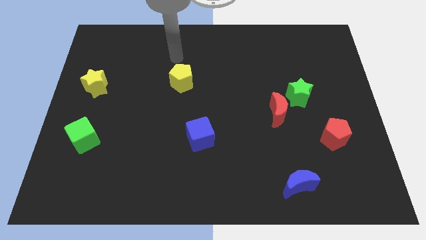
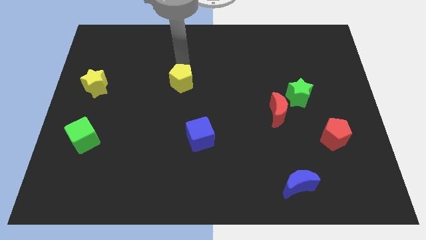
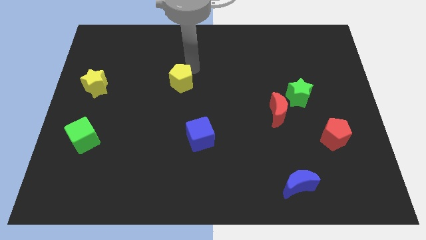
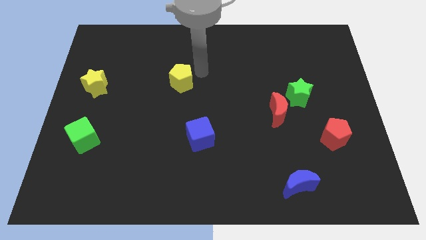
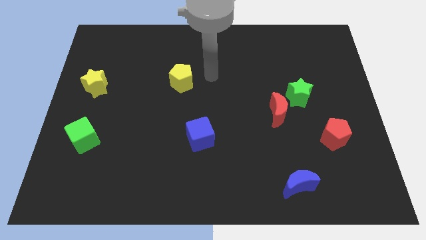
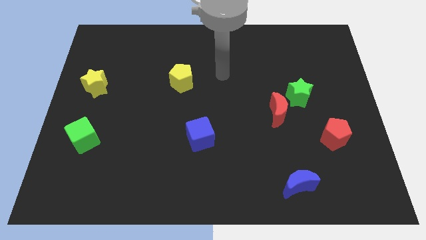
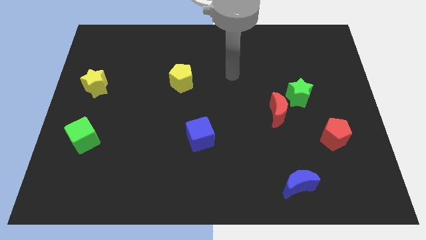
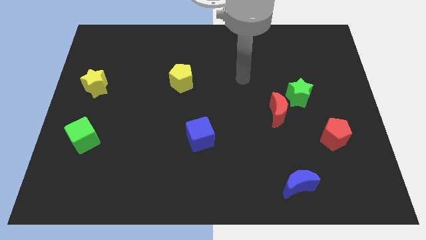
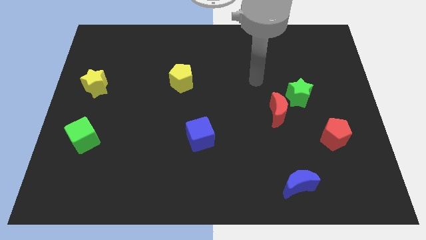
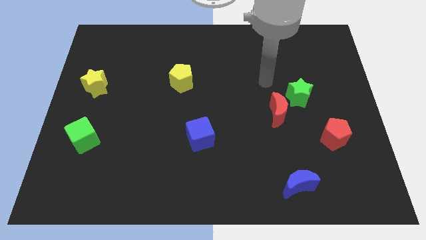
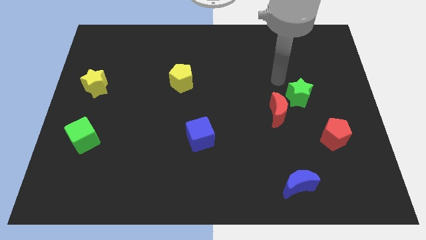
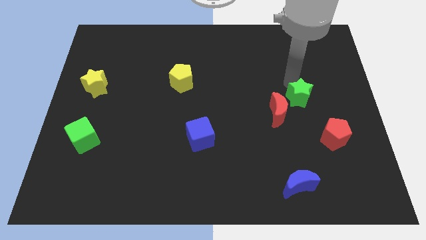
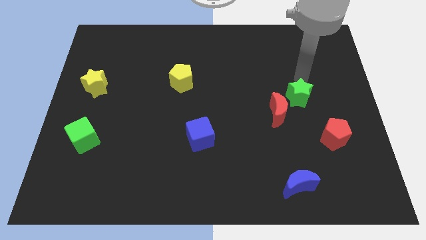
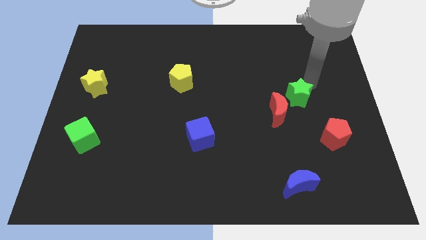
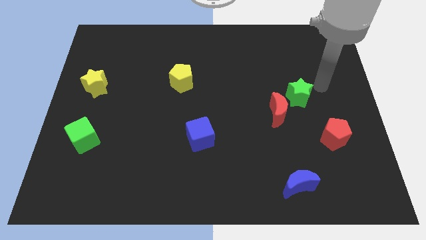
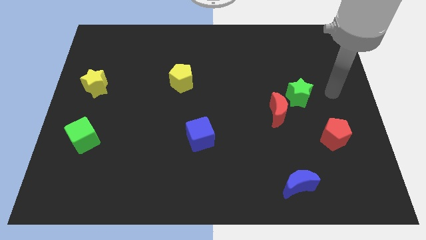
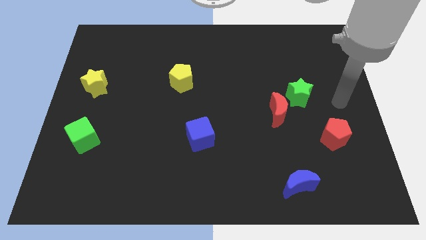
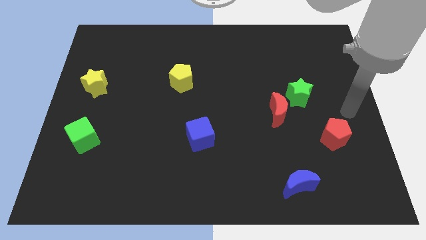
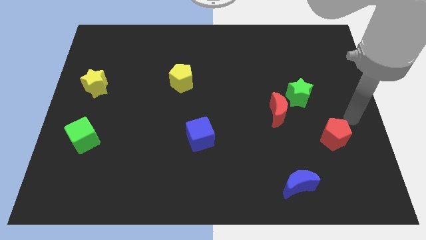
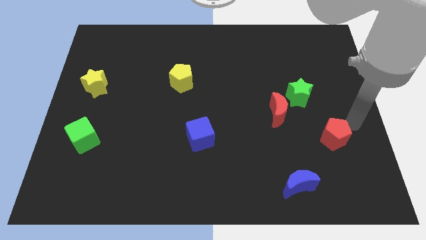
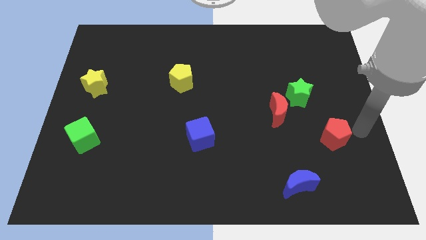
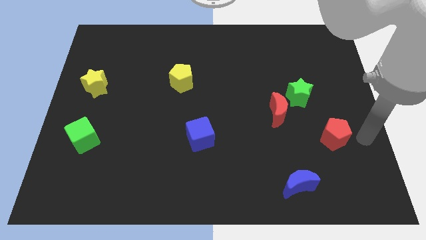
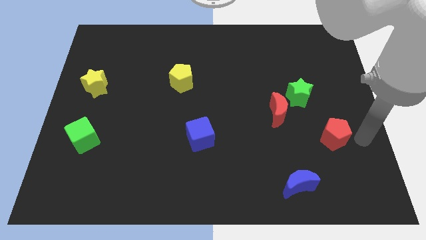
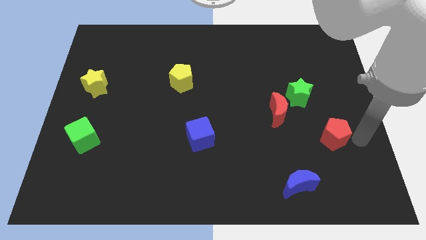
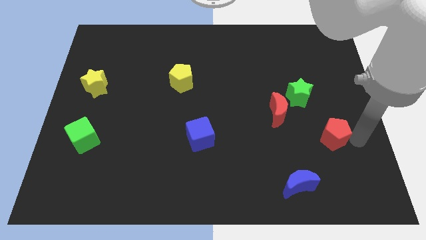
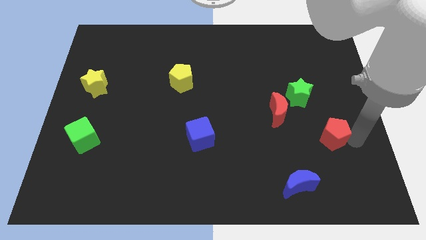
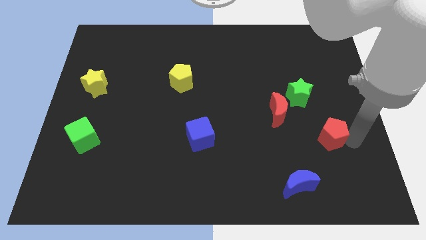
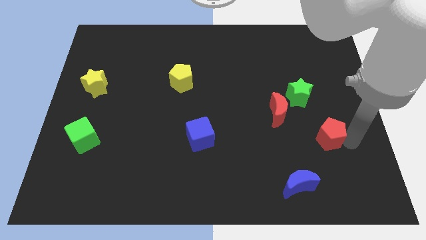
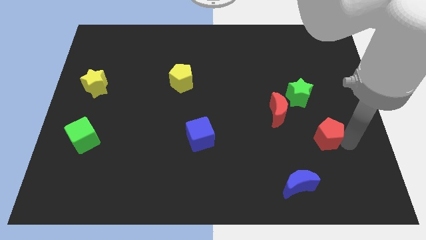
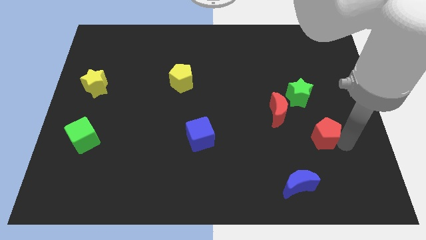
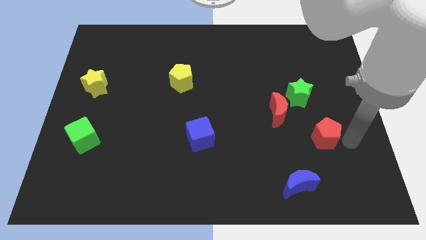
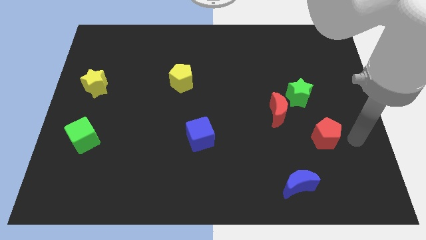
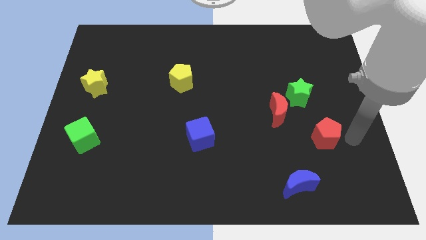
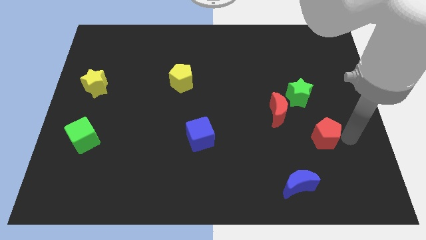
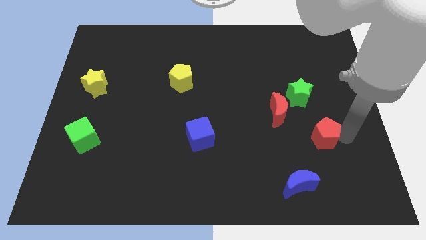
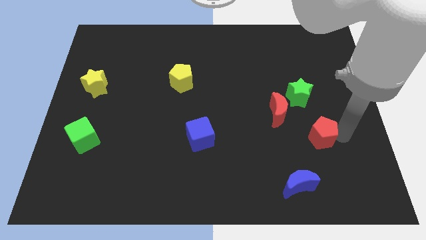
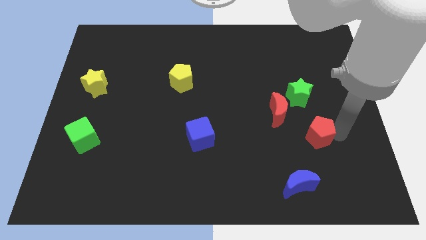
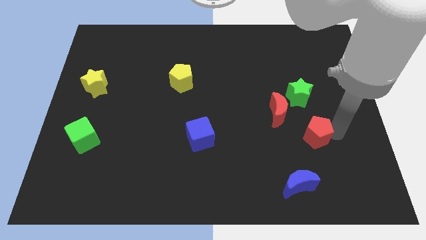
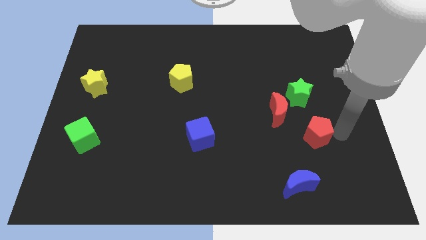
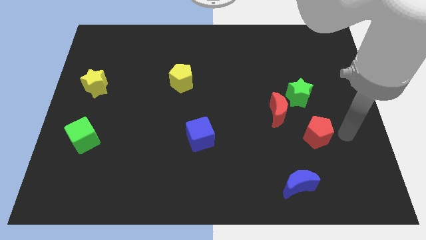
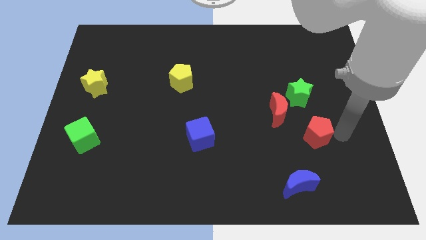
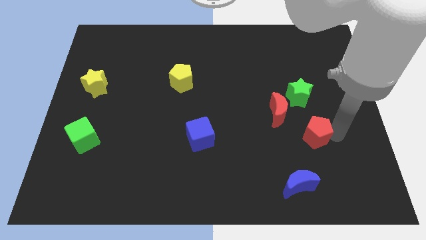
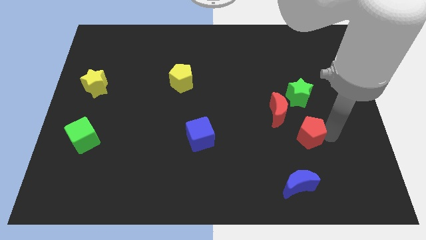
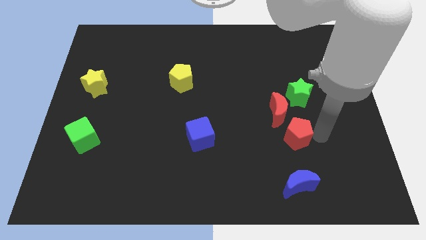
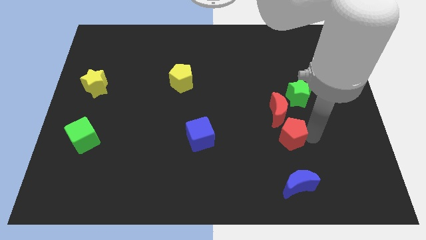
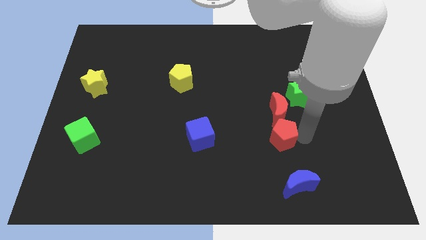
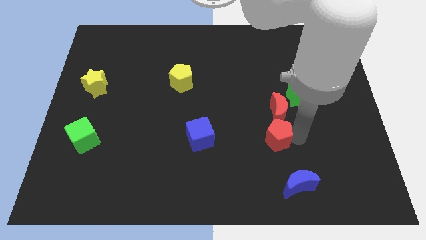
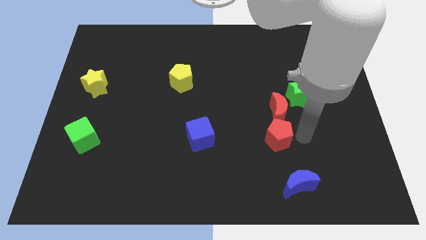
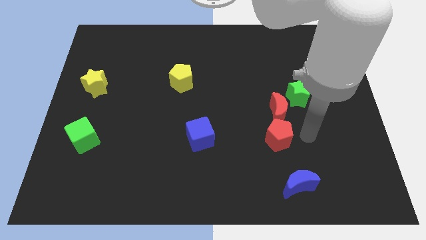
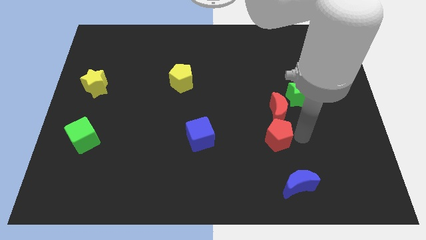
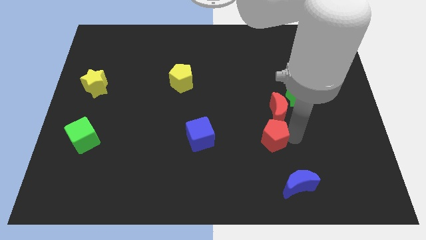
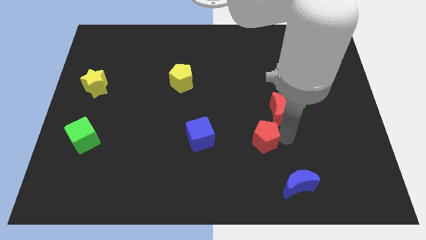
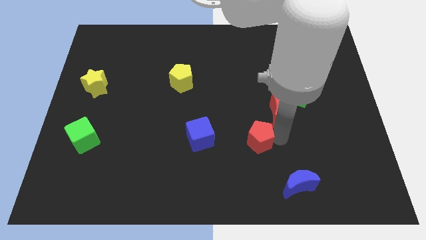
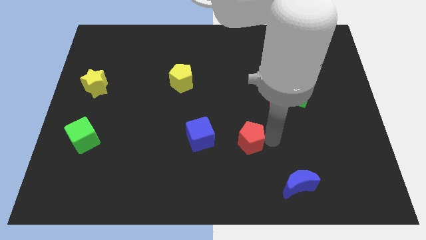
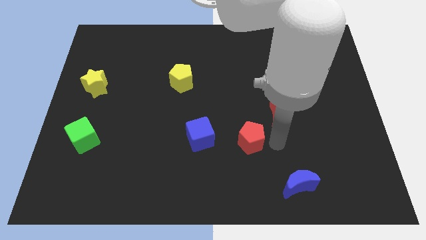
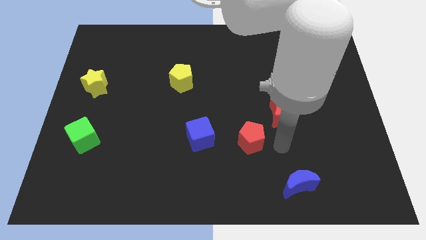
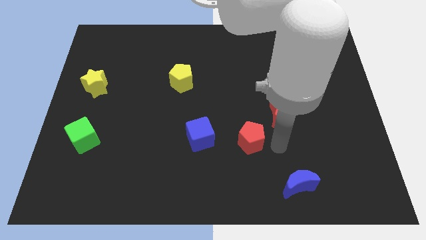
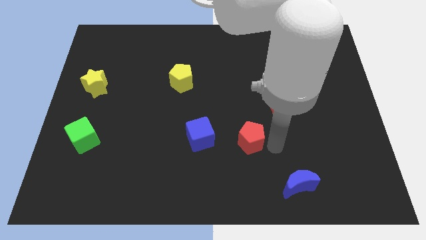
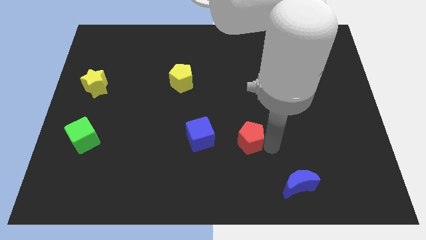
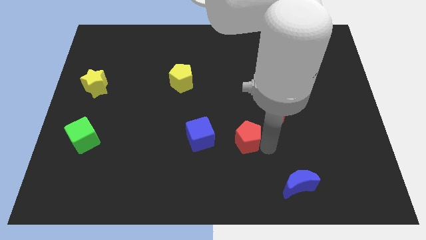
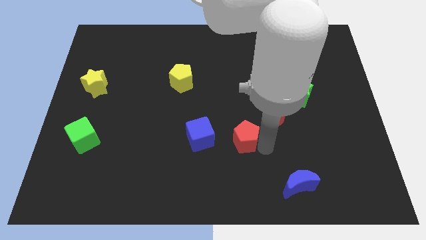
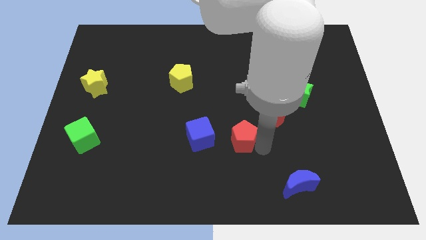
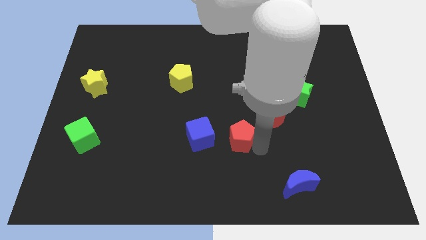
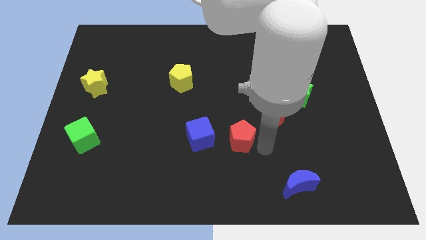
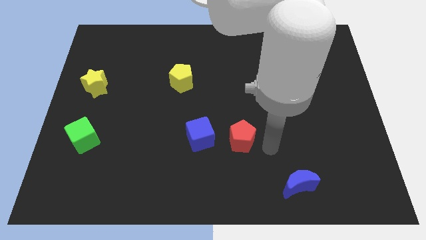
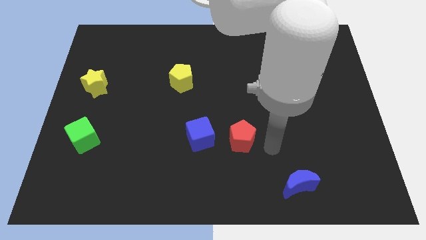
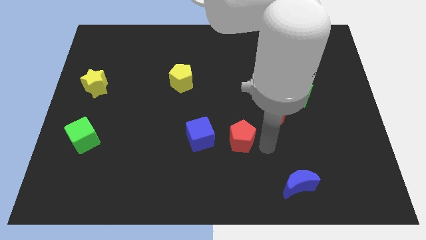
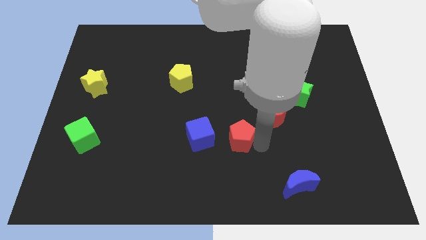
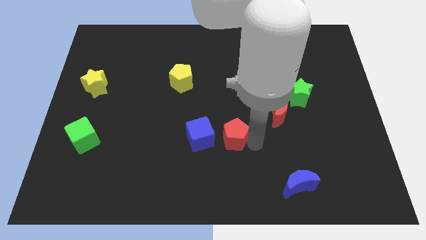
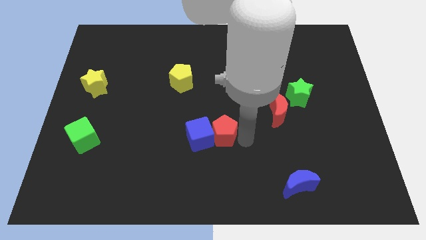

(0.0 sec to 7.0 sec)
put the red pentagon next to the blue cube
